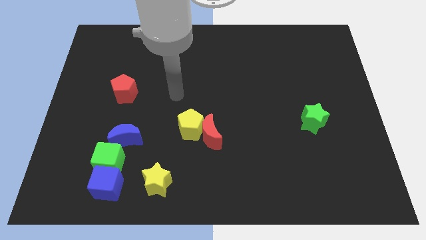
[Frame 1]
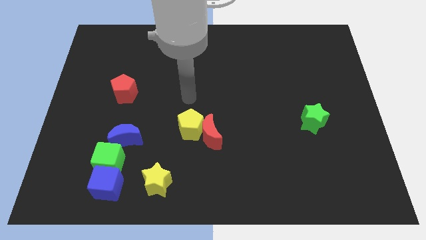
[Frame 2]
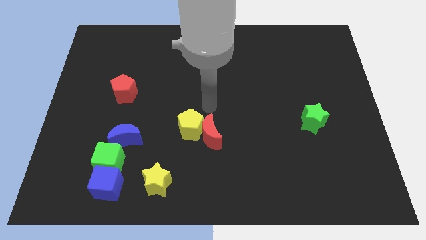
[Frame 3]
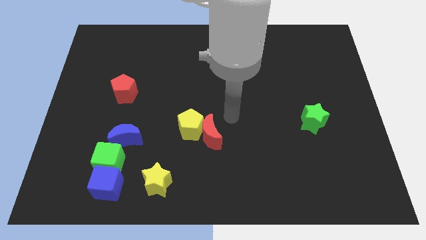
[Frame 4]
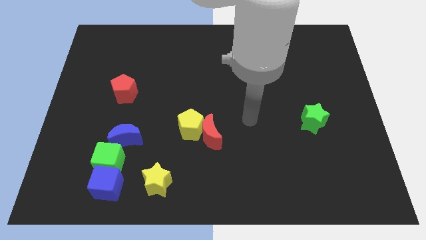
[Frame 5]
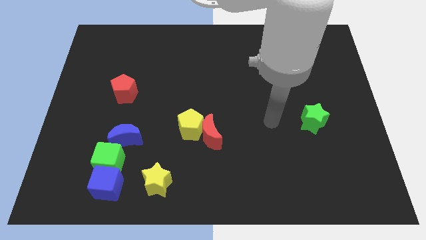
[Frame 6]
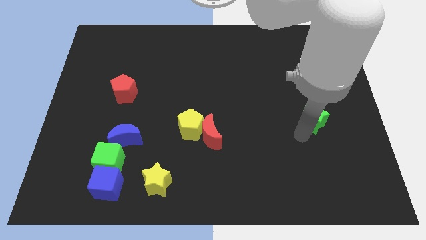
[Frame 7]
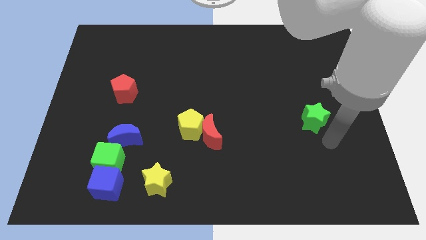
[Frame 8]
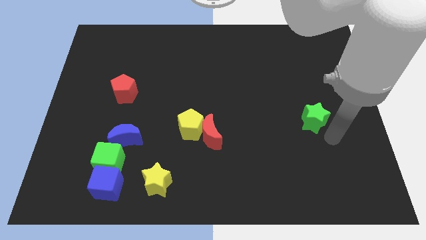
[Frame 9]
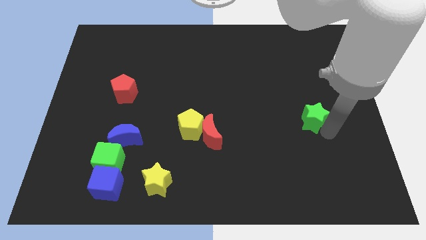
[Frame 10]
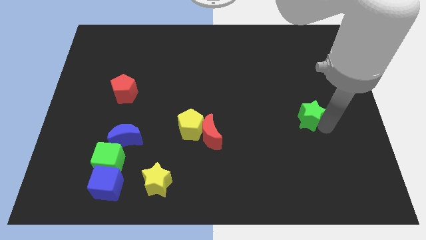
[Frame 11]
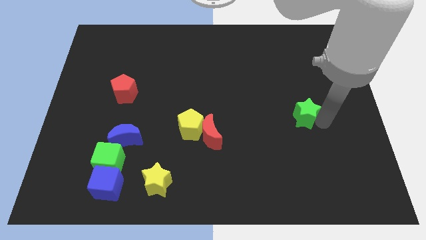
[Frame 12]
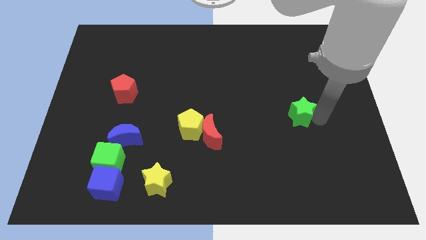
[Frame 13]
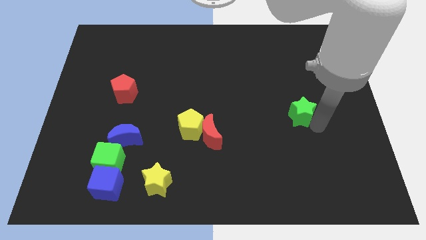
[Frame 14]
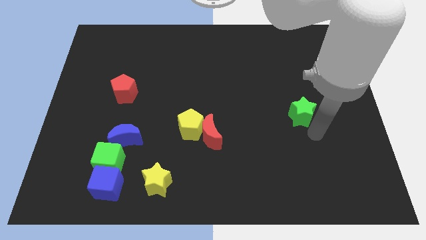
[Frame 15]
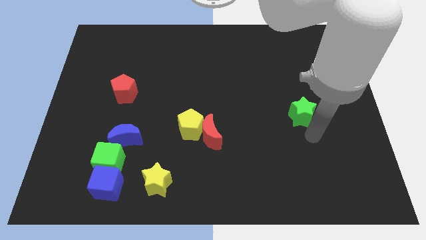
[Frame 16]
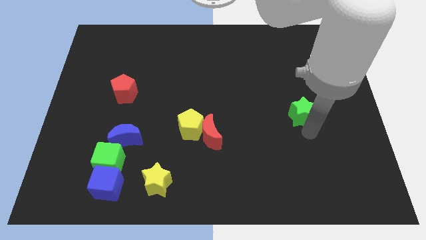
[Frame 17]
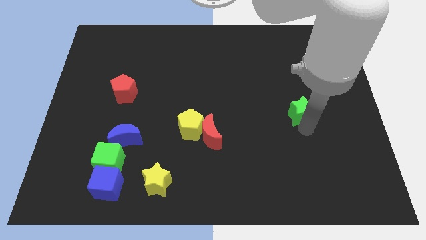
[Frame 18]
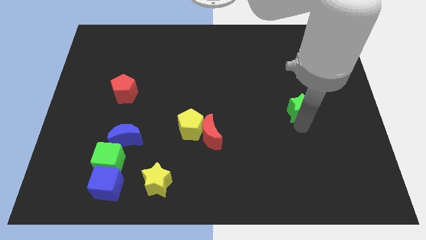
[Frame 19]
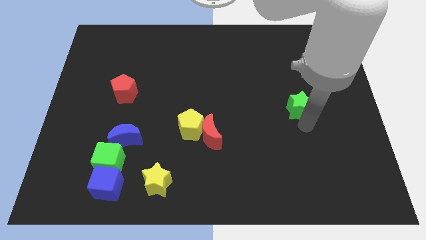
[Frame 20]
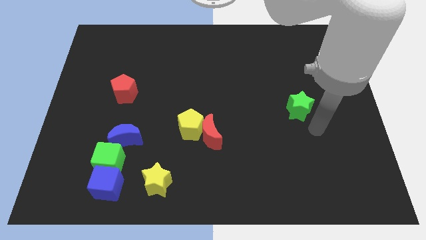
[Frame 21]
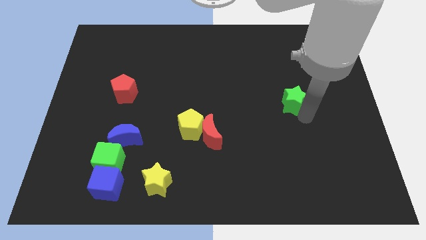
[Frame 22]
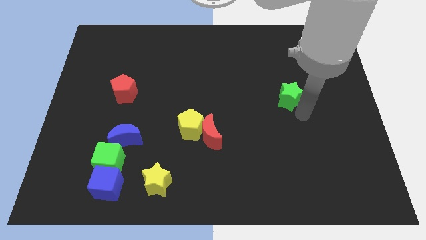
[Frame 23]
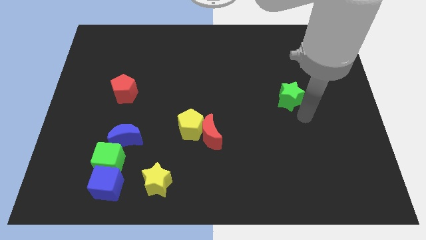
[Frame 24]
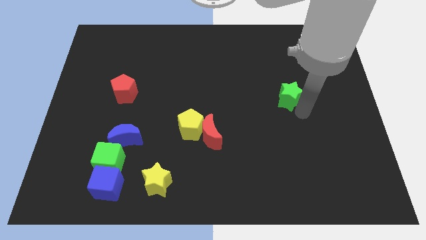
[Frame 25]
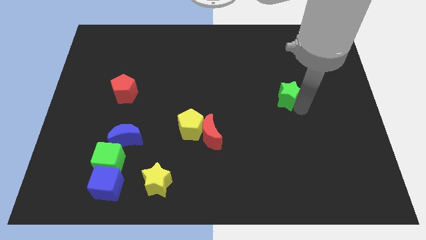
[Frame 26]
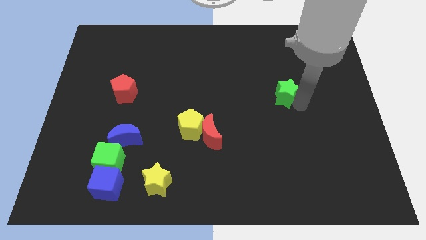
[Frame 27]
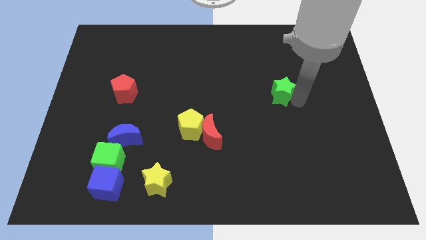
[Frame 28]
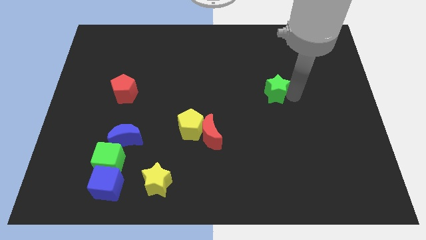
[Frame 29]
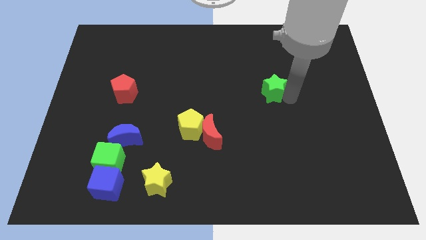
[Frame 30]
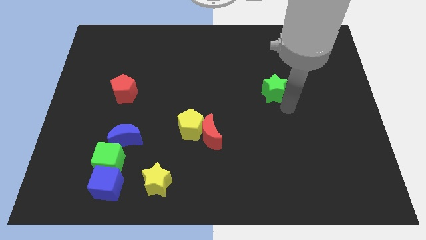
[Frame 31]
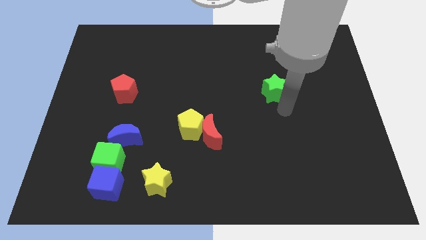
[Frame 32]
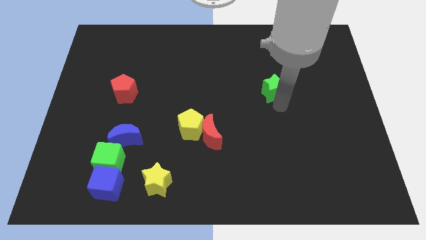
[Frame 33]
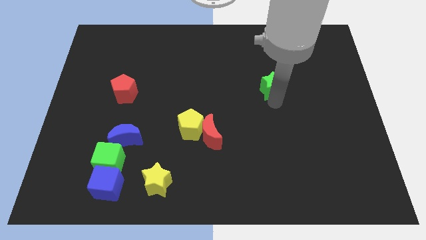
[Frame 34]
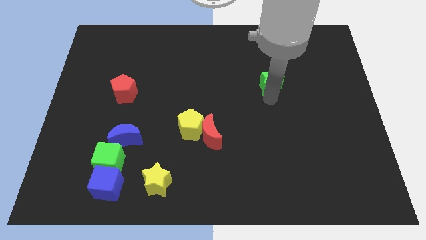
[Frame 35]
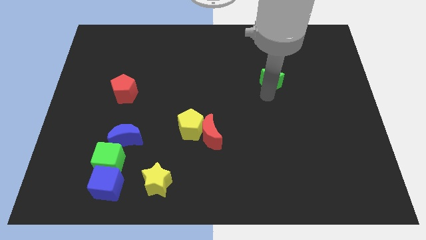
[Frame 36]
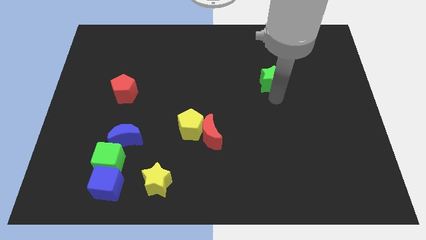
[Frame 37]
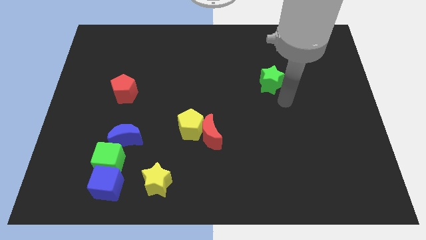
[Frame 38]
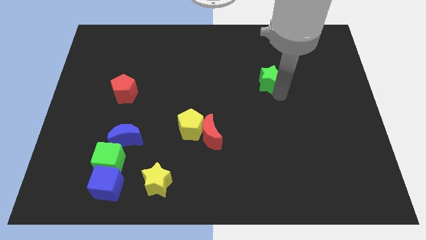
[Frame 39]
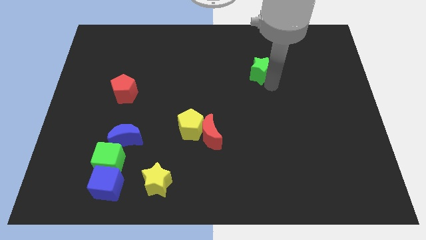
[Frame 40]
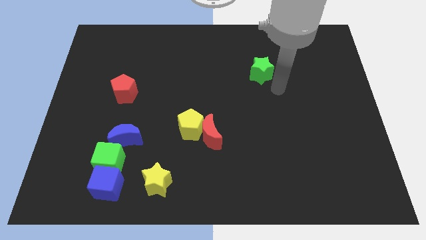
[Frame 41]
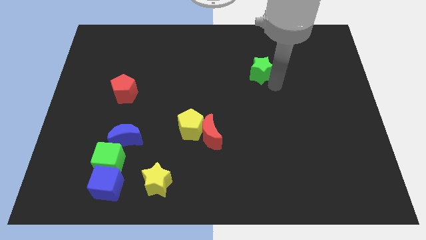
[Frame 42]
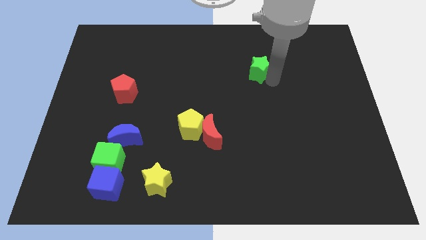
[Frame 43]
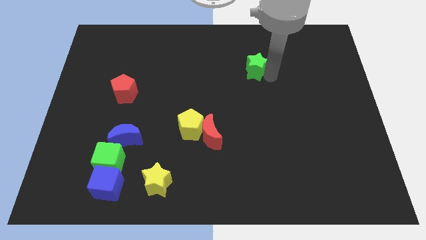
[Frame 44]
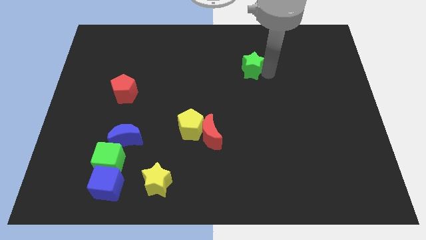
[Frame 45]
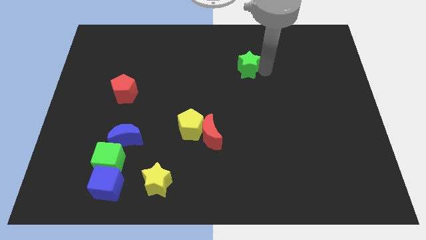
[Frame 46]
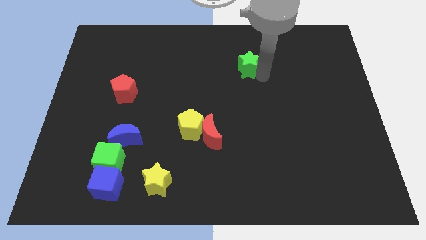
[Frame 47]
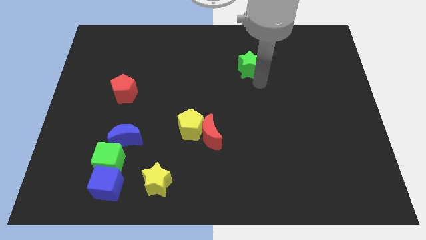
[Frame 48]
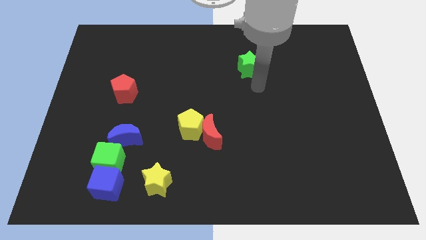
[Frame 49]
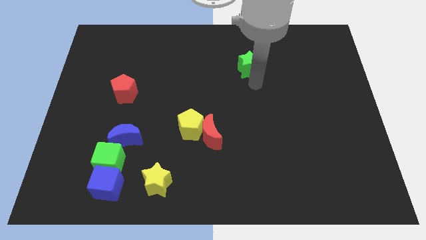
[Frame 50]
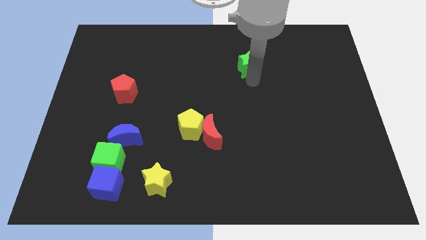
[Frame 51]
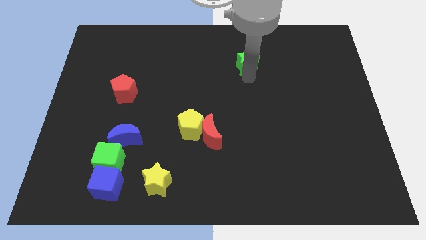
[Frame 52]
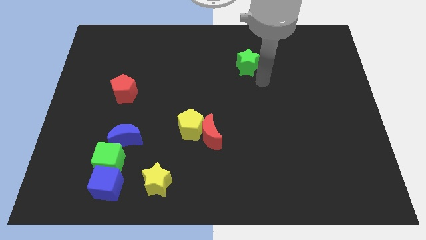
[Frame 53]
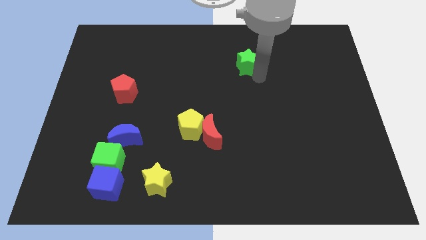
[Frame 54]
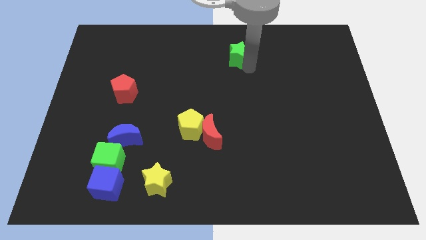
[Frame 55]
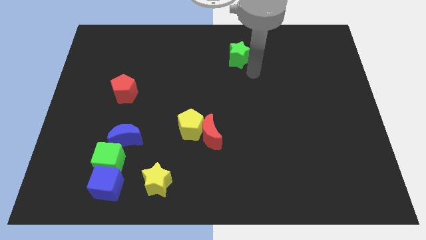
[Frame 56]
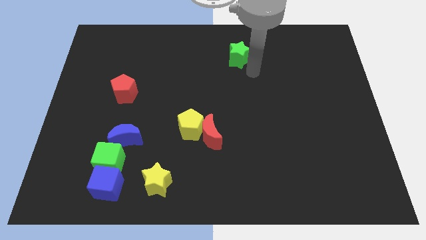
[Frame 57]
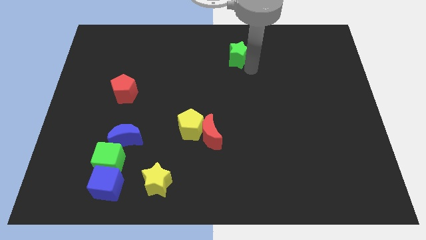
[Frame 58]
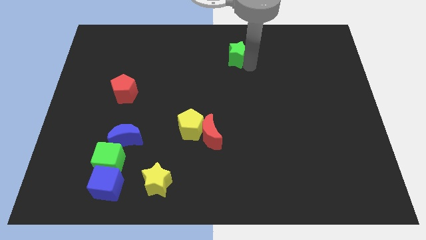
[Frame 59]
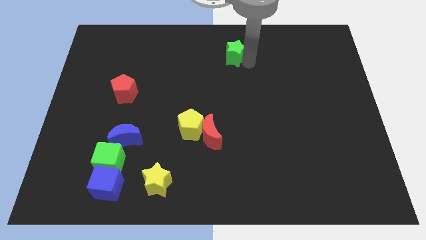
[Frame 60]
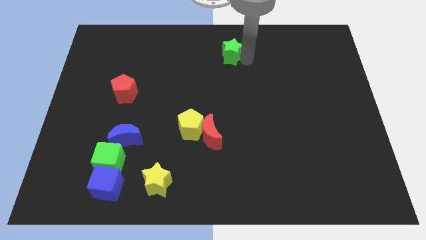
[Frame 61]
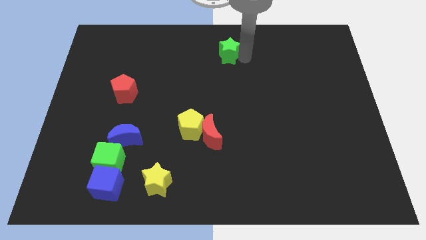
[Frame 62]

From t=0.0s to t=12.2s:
put the green star to the top

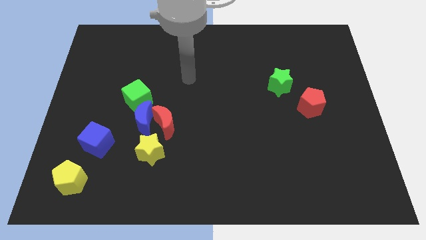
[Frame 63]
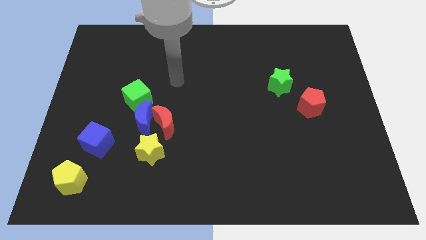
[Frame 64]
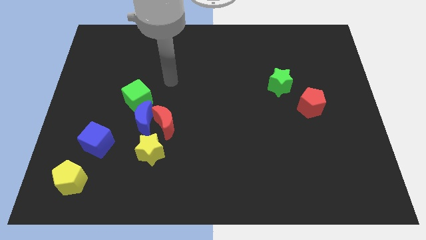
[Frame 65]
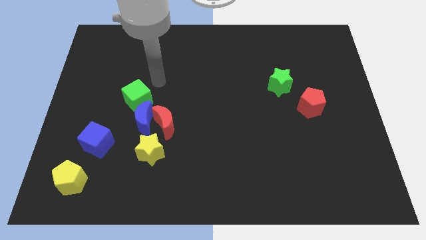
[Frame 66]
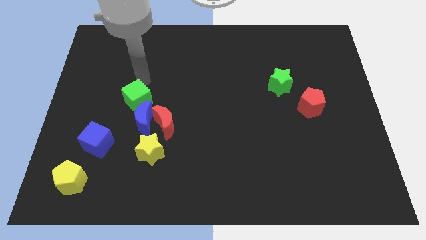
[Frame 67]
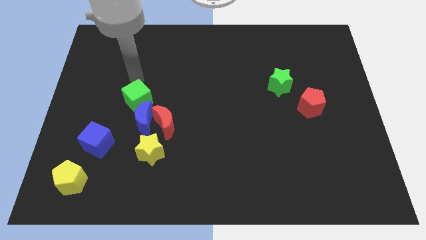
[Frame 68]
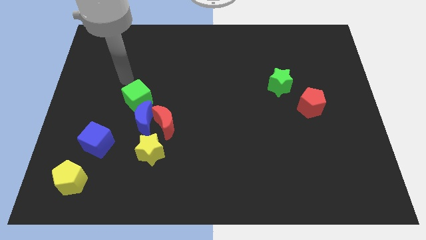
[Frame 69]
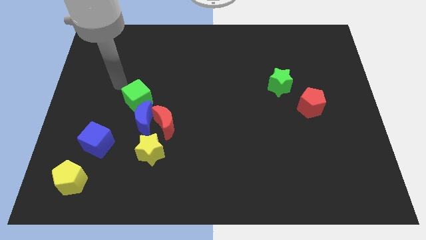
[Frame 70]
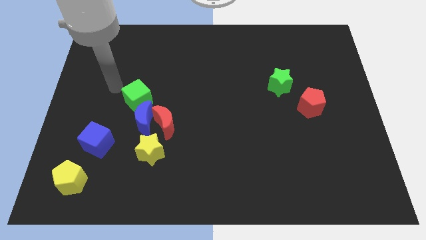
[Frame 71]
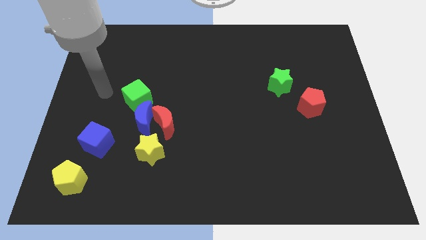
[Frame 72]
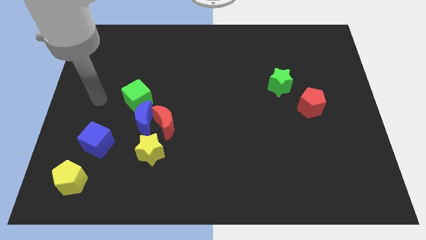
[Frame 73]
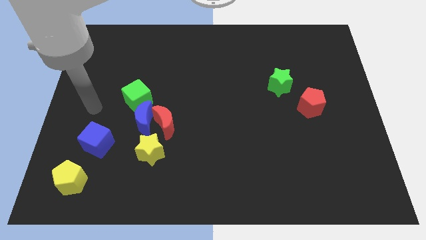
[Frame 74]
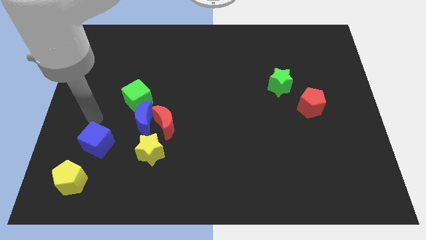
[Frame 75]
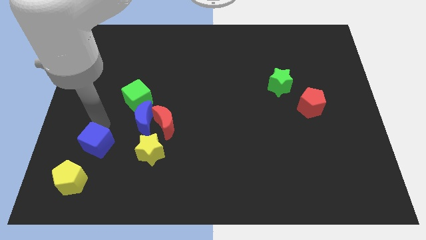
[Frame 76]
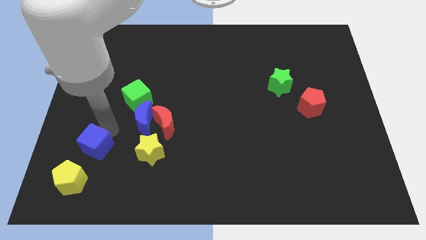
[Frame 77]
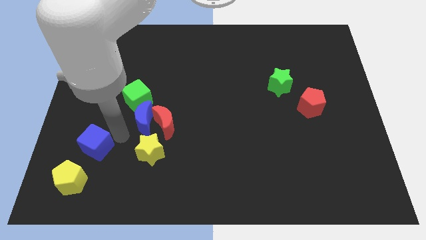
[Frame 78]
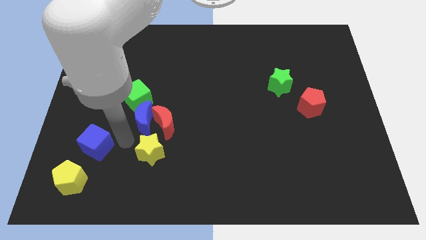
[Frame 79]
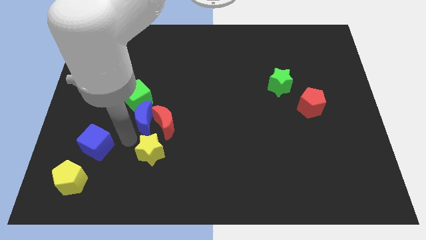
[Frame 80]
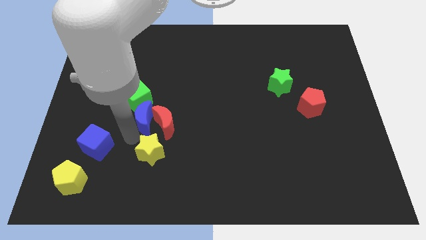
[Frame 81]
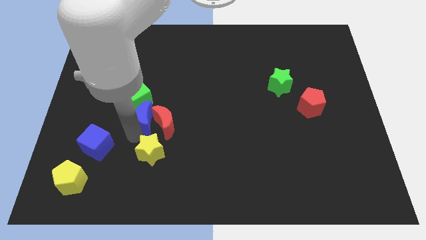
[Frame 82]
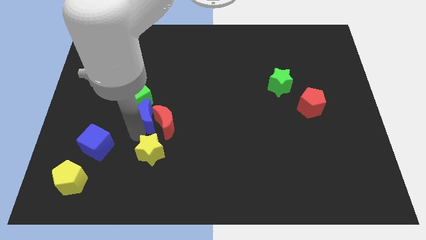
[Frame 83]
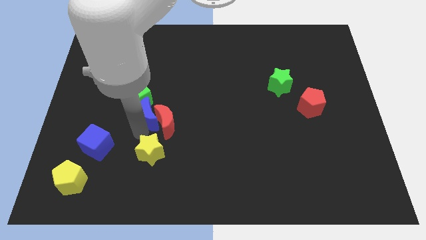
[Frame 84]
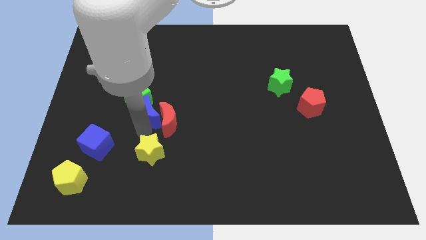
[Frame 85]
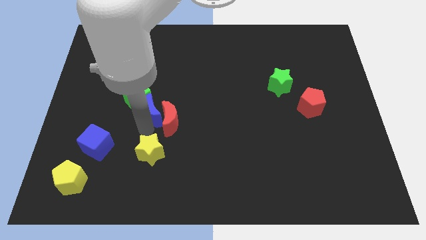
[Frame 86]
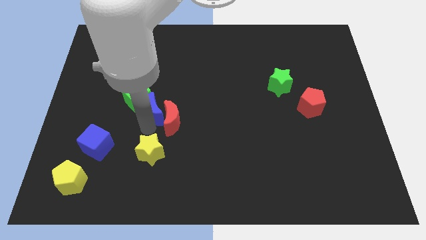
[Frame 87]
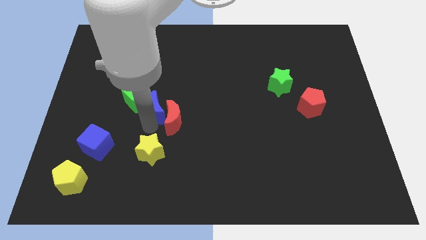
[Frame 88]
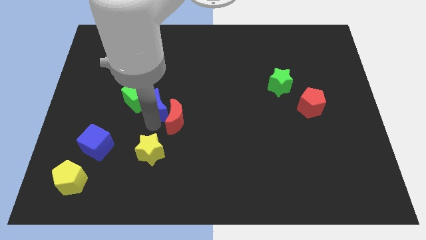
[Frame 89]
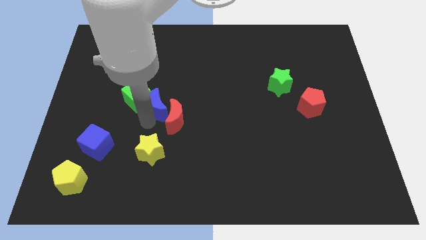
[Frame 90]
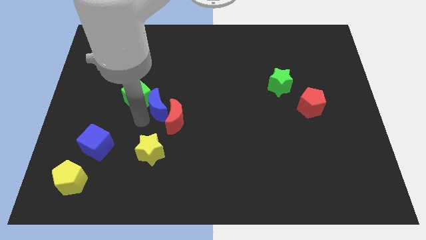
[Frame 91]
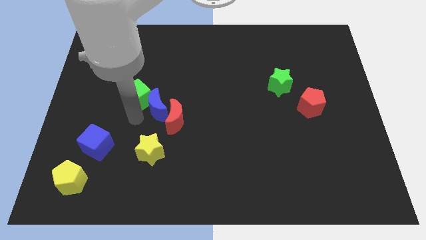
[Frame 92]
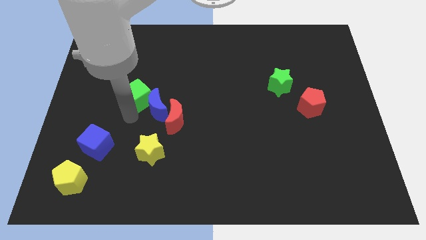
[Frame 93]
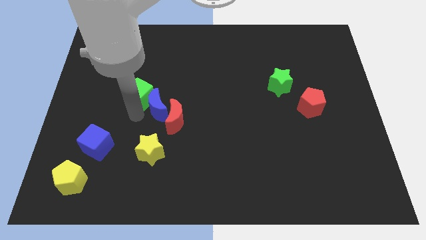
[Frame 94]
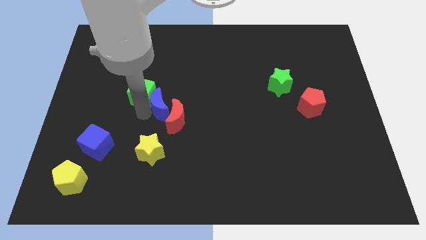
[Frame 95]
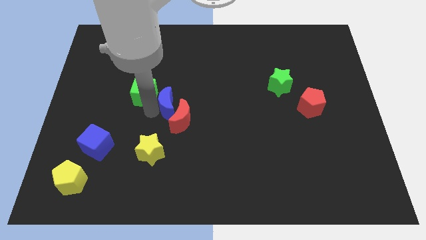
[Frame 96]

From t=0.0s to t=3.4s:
push the blue moon to the middle
